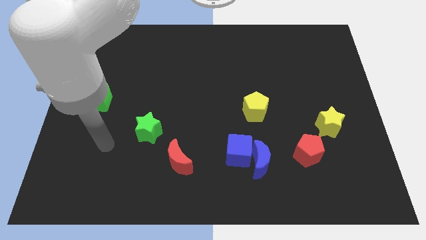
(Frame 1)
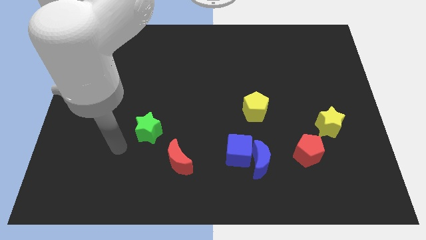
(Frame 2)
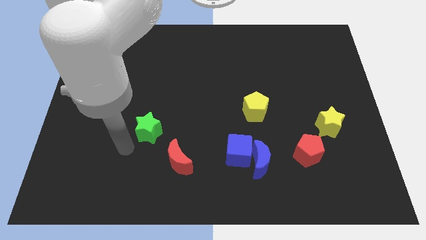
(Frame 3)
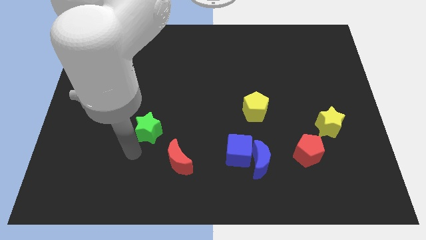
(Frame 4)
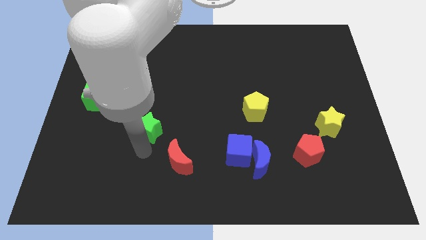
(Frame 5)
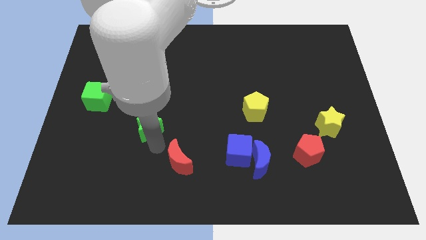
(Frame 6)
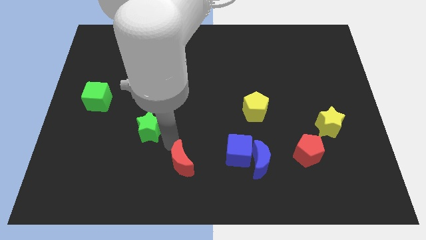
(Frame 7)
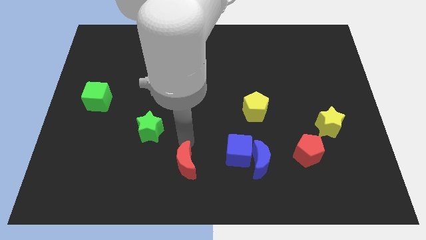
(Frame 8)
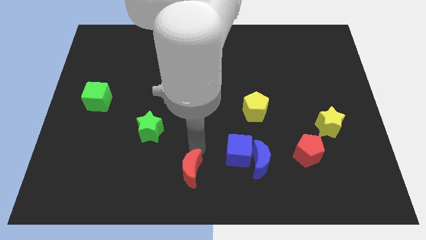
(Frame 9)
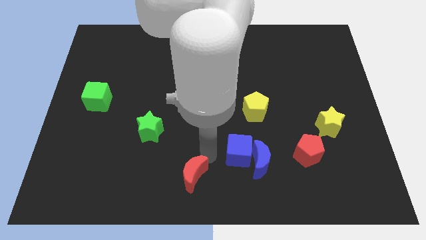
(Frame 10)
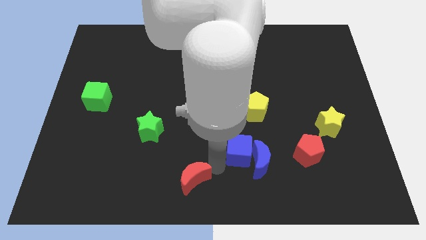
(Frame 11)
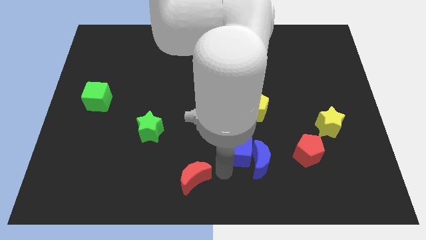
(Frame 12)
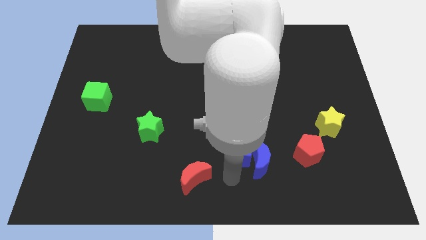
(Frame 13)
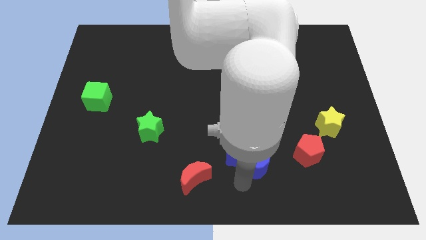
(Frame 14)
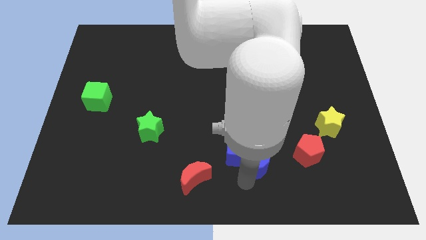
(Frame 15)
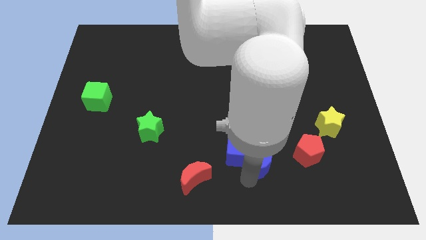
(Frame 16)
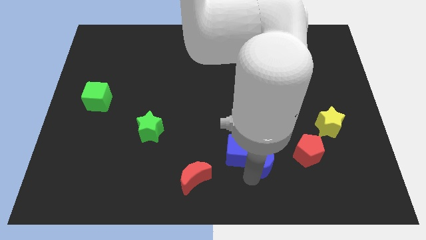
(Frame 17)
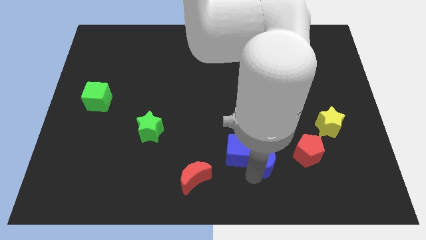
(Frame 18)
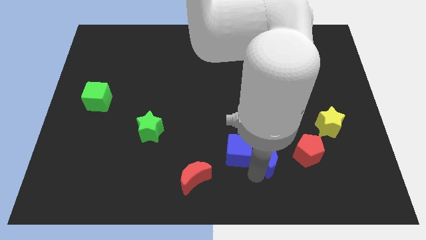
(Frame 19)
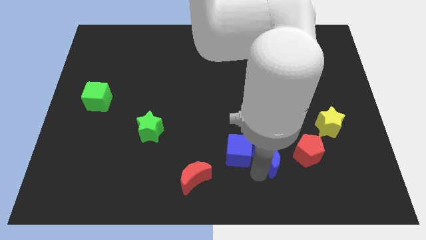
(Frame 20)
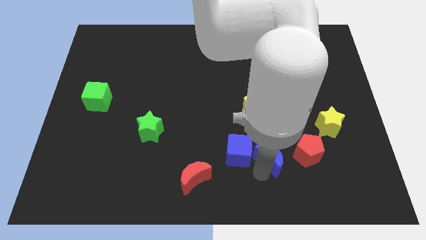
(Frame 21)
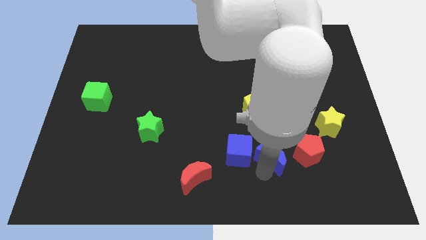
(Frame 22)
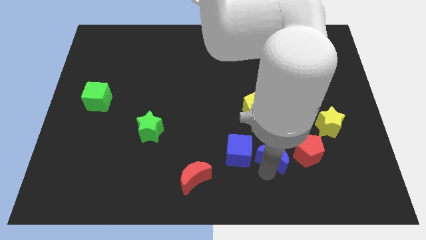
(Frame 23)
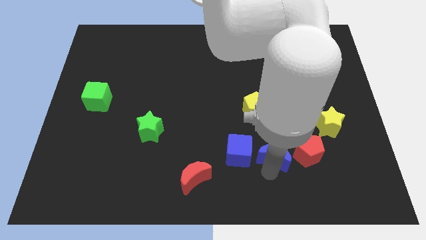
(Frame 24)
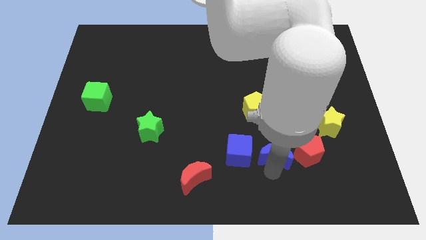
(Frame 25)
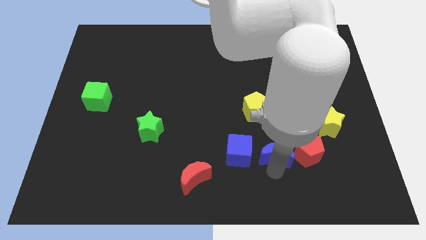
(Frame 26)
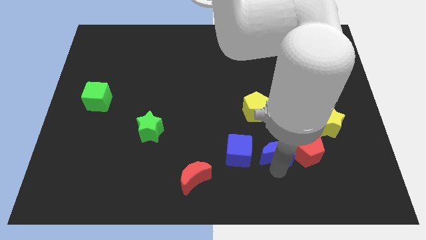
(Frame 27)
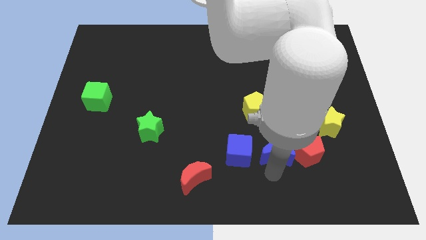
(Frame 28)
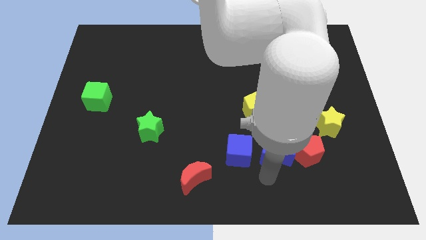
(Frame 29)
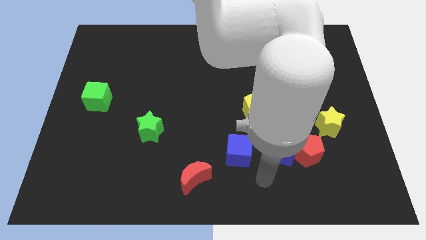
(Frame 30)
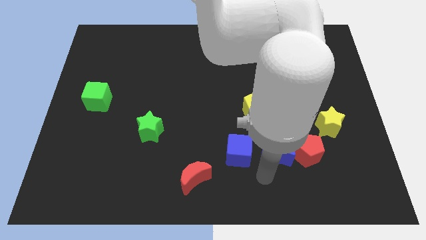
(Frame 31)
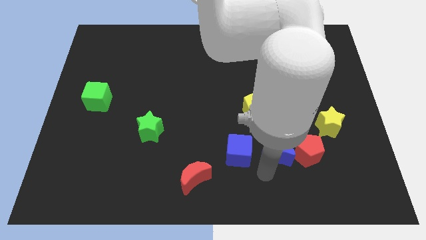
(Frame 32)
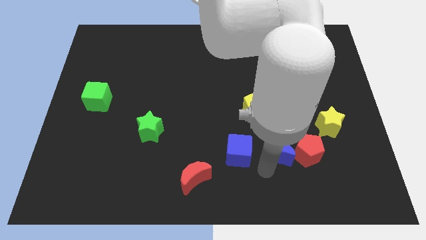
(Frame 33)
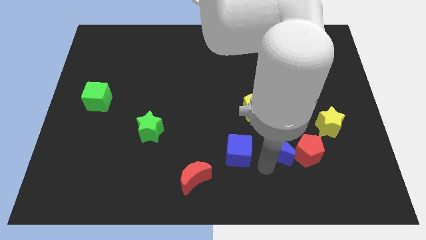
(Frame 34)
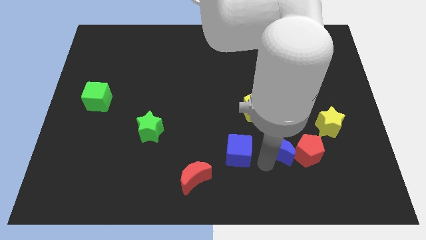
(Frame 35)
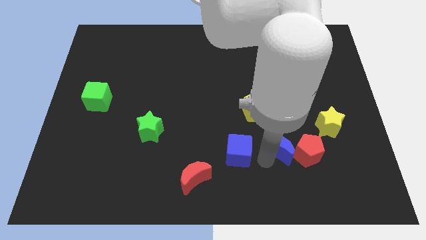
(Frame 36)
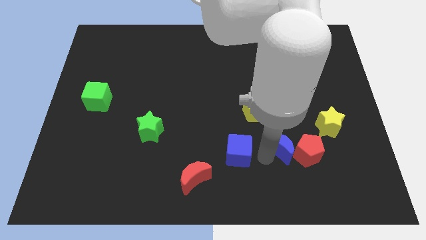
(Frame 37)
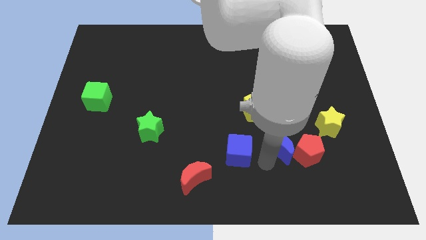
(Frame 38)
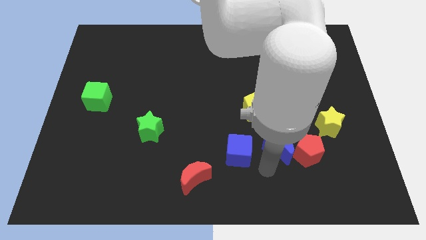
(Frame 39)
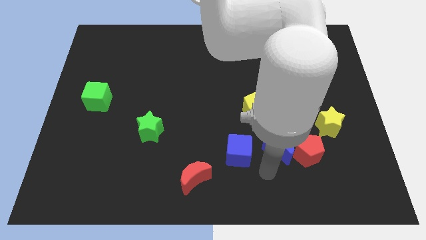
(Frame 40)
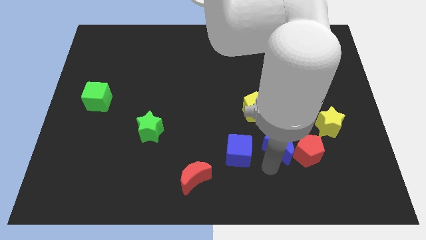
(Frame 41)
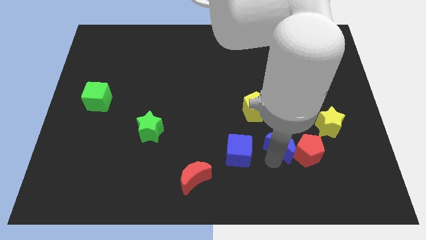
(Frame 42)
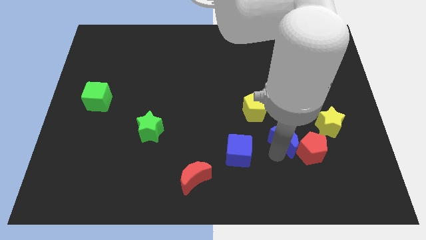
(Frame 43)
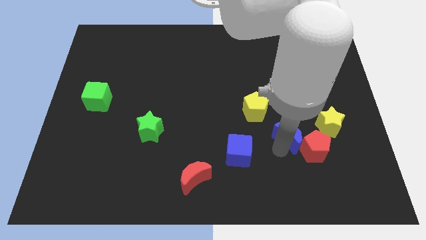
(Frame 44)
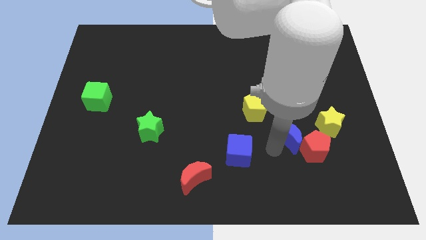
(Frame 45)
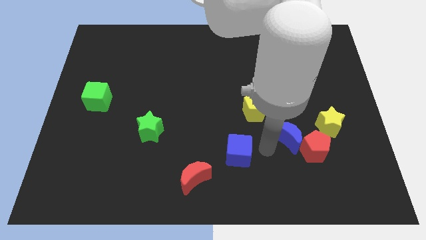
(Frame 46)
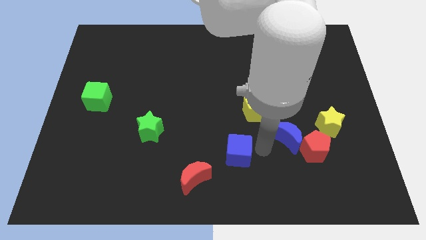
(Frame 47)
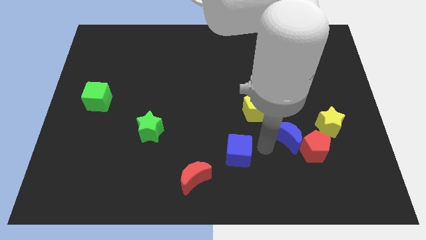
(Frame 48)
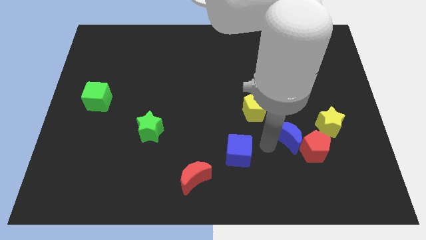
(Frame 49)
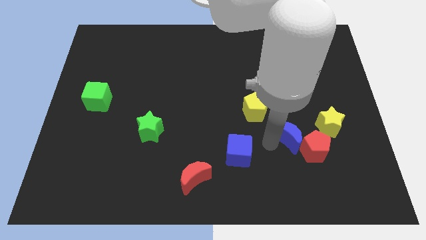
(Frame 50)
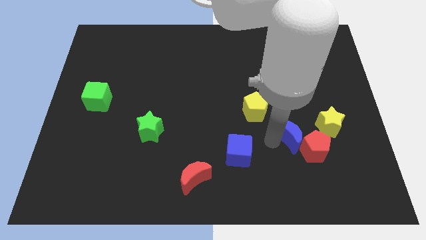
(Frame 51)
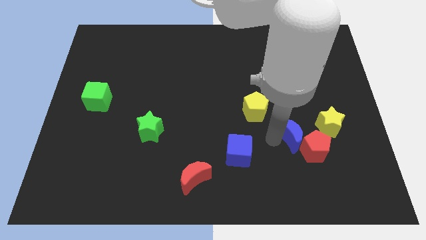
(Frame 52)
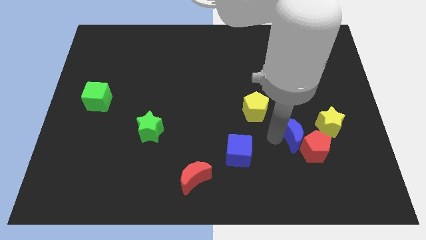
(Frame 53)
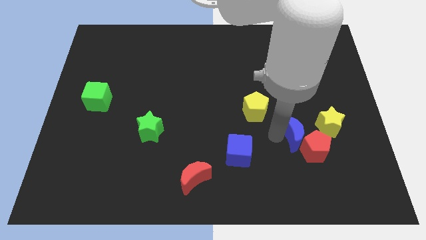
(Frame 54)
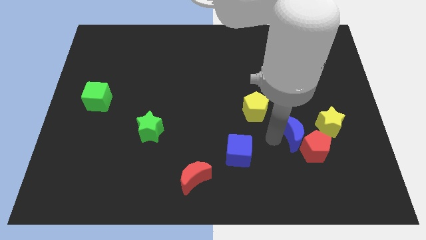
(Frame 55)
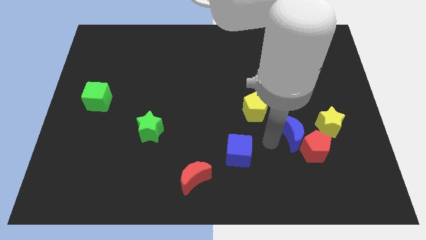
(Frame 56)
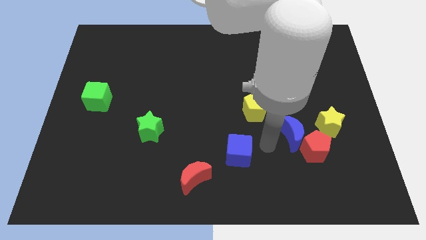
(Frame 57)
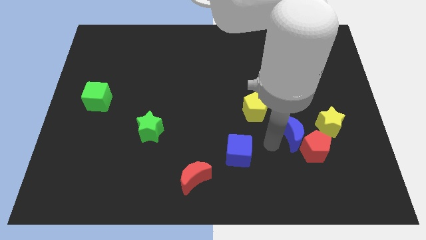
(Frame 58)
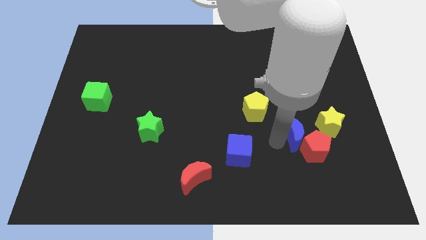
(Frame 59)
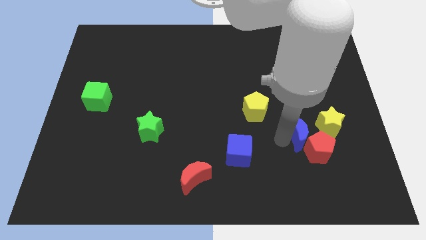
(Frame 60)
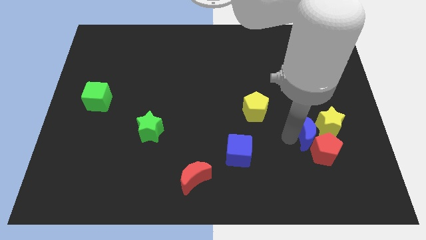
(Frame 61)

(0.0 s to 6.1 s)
move the blue moon next to the yellow star

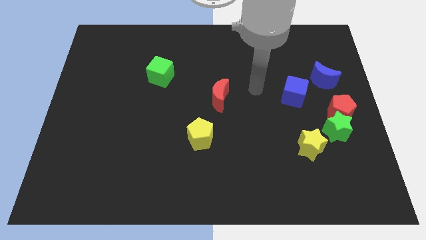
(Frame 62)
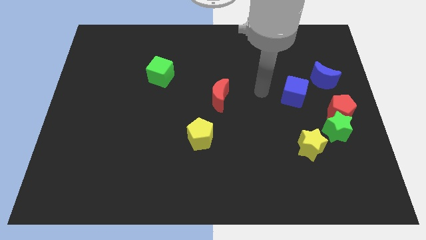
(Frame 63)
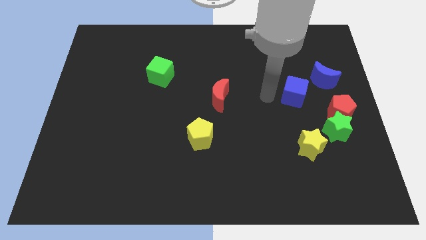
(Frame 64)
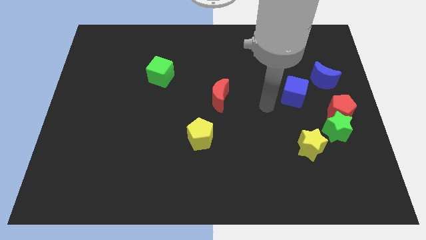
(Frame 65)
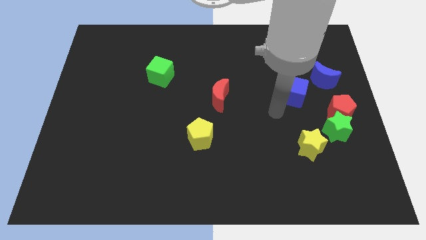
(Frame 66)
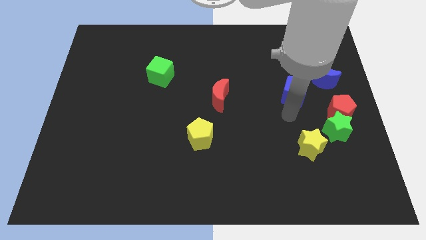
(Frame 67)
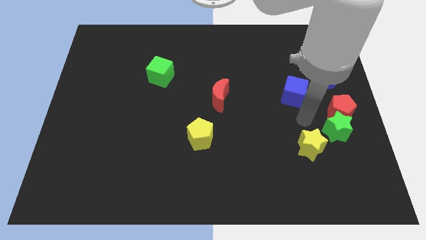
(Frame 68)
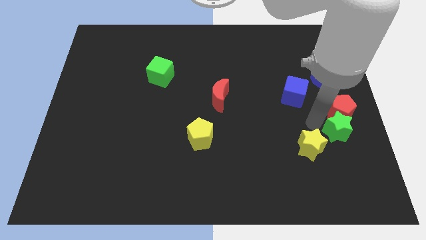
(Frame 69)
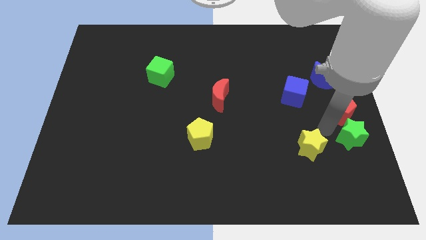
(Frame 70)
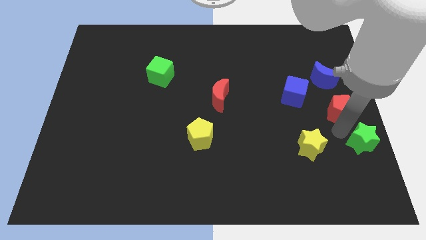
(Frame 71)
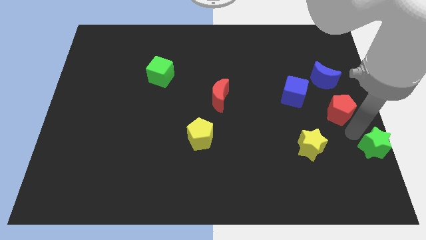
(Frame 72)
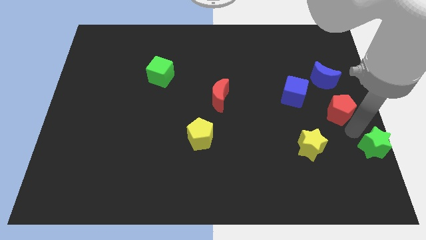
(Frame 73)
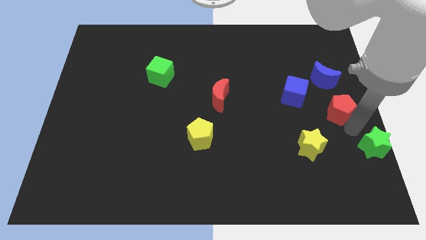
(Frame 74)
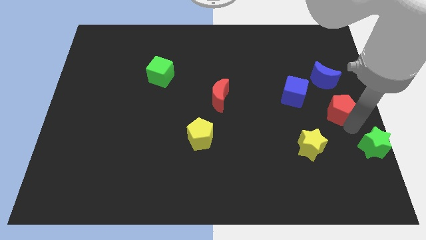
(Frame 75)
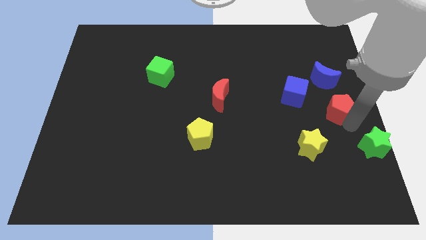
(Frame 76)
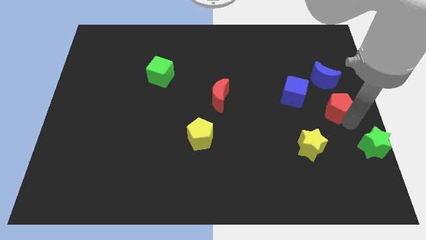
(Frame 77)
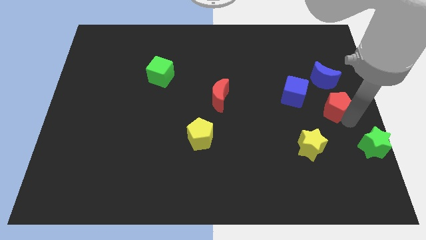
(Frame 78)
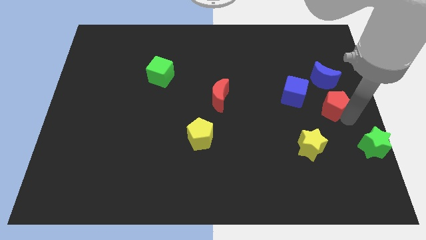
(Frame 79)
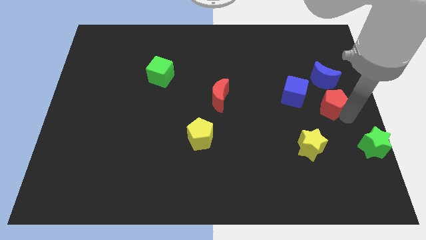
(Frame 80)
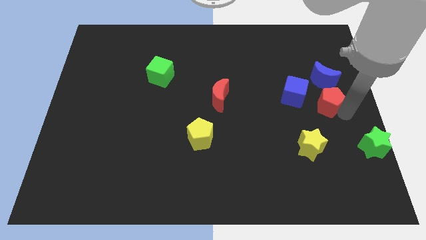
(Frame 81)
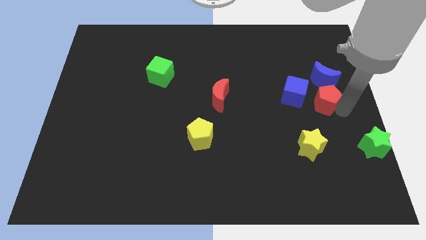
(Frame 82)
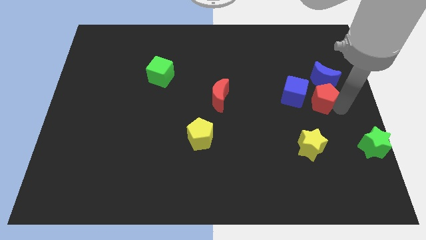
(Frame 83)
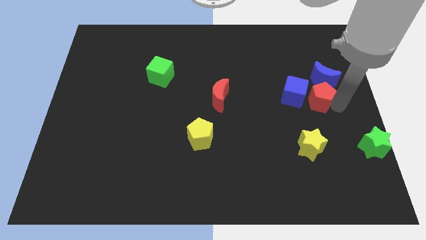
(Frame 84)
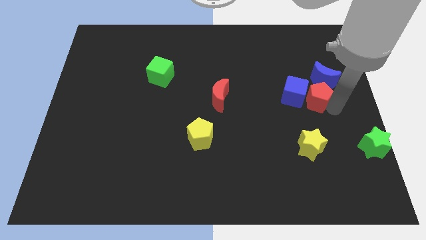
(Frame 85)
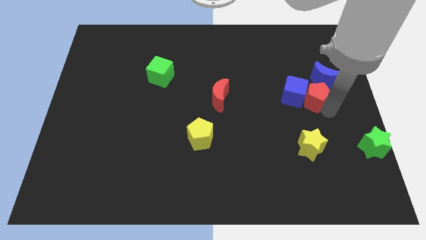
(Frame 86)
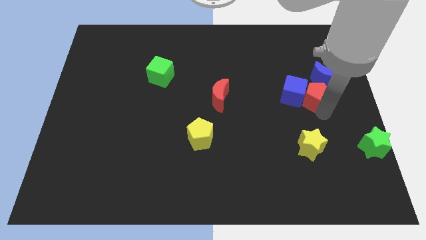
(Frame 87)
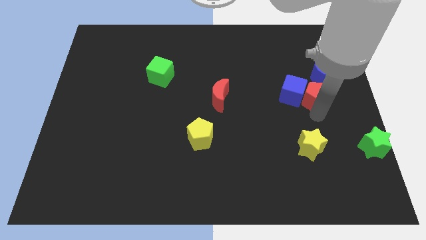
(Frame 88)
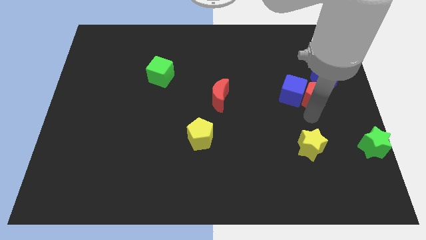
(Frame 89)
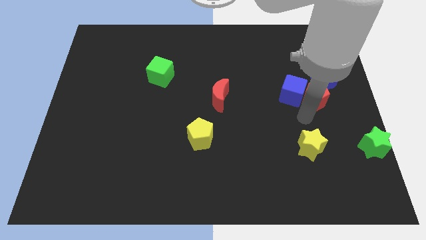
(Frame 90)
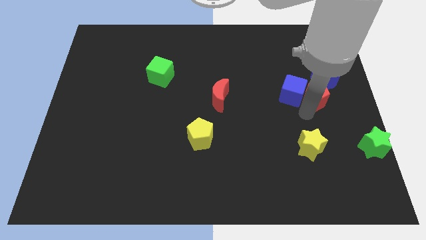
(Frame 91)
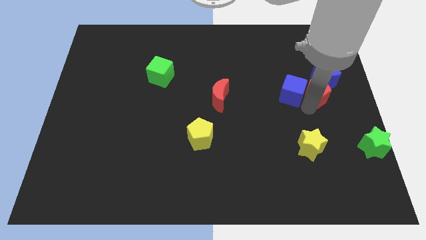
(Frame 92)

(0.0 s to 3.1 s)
put the red pentagon to the blue moon
